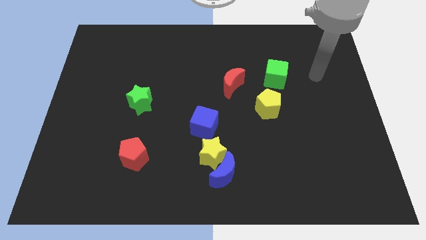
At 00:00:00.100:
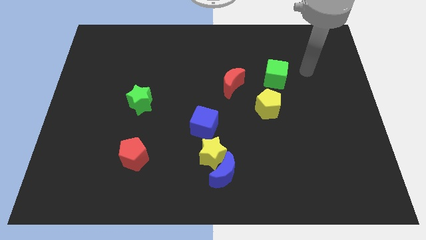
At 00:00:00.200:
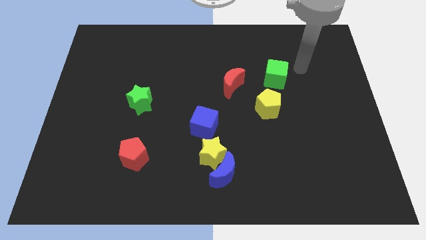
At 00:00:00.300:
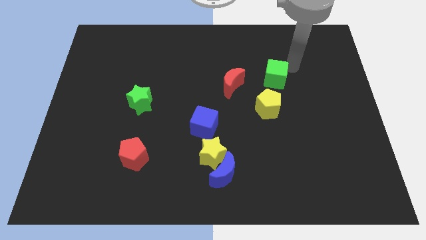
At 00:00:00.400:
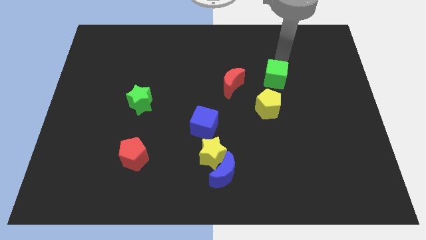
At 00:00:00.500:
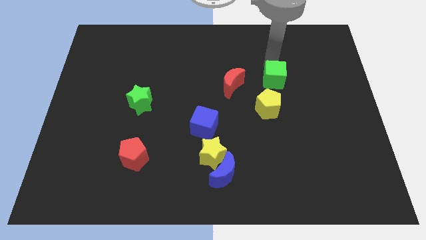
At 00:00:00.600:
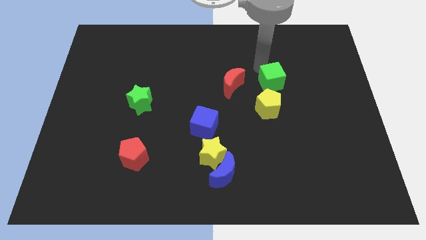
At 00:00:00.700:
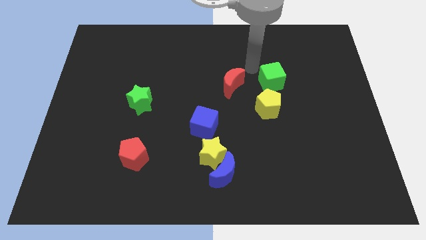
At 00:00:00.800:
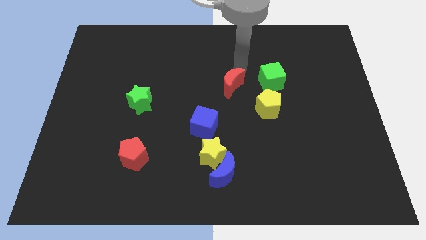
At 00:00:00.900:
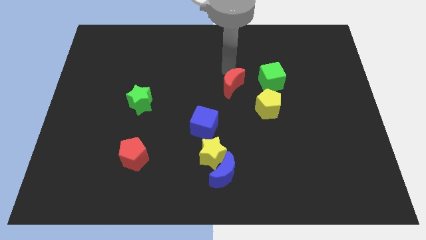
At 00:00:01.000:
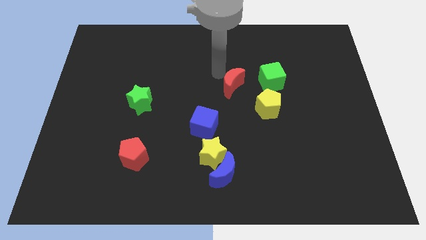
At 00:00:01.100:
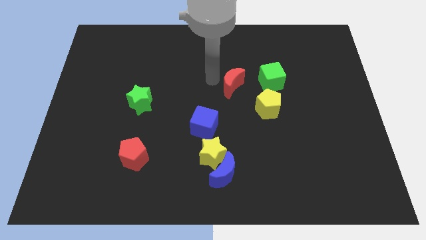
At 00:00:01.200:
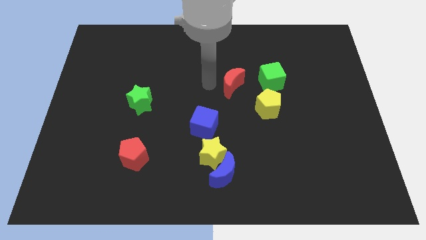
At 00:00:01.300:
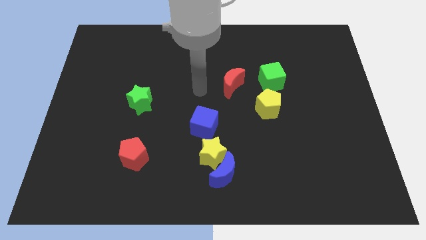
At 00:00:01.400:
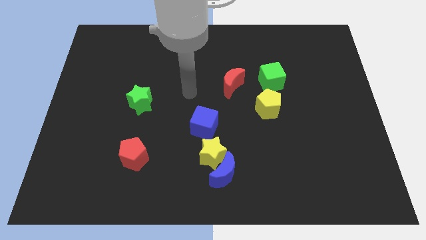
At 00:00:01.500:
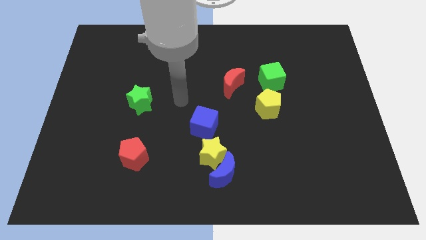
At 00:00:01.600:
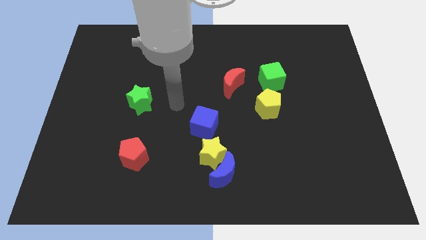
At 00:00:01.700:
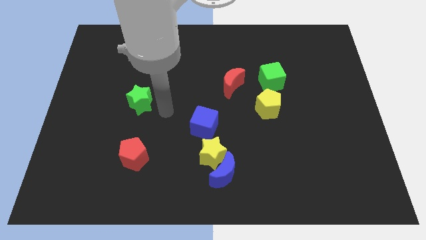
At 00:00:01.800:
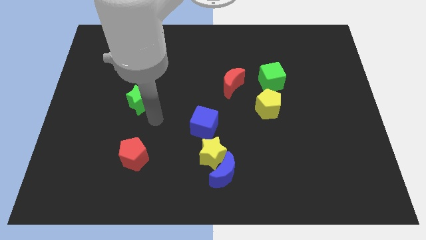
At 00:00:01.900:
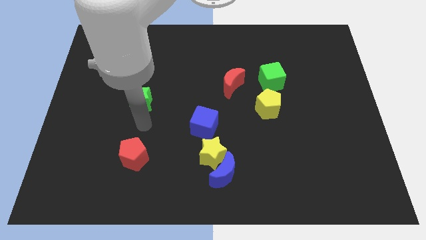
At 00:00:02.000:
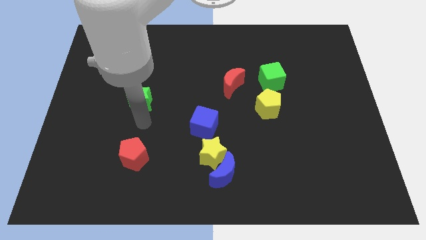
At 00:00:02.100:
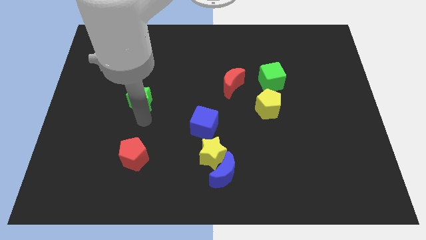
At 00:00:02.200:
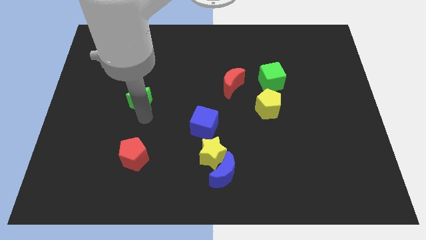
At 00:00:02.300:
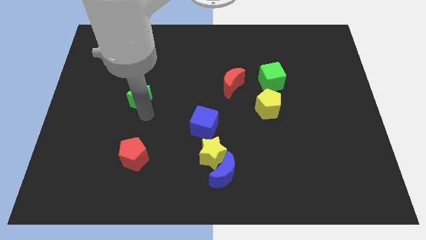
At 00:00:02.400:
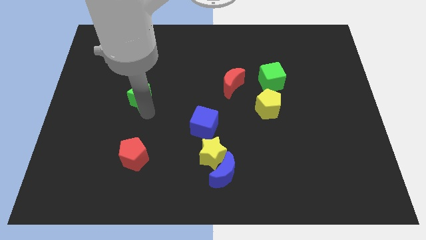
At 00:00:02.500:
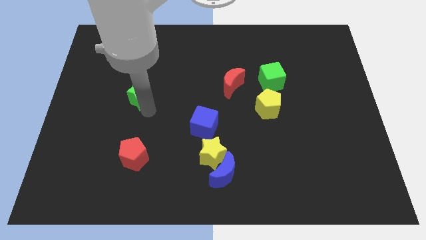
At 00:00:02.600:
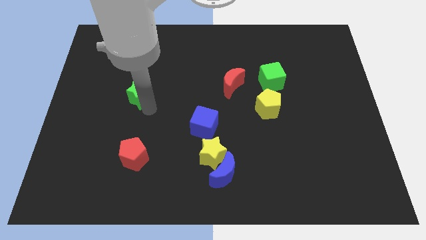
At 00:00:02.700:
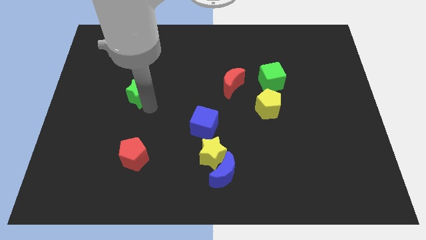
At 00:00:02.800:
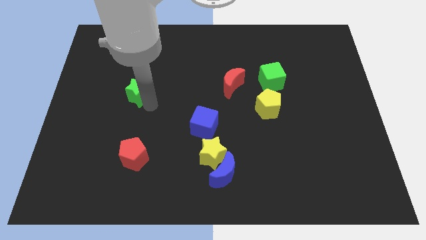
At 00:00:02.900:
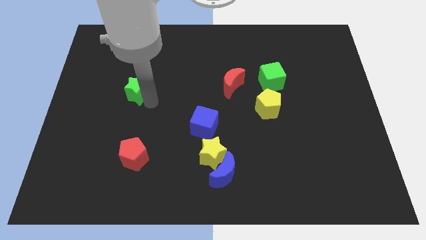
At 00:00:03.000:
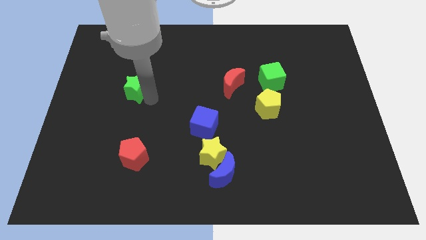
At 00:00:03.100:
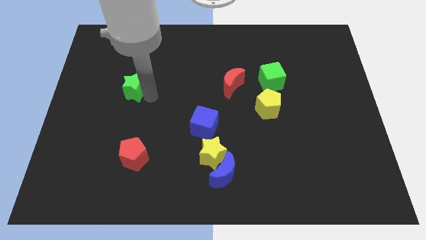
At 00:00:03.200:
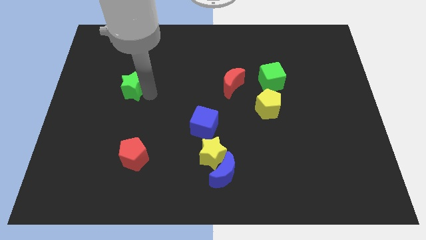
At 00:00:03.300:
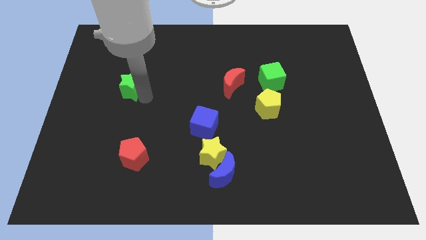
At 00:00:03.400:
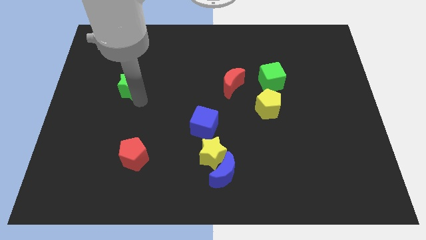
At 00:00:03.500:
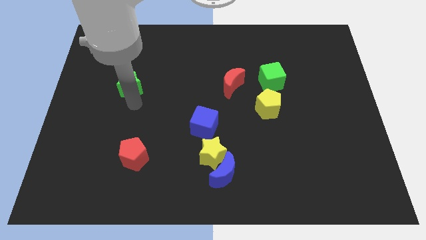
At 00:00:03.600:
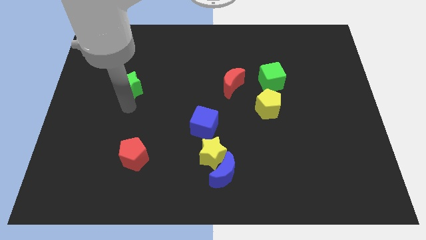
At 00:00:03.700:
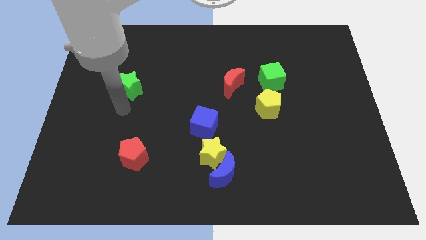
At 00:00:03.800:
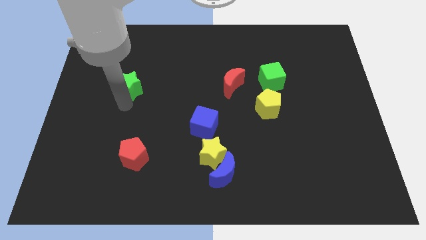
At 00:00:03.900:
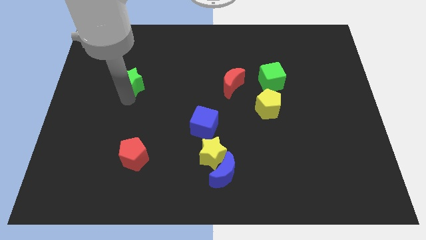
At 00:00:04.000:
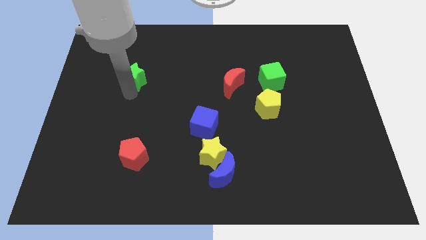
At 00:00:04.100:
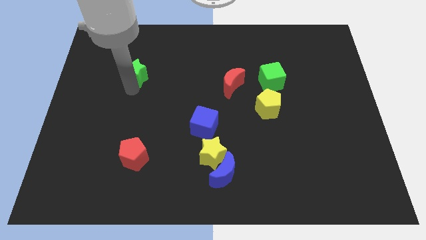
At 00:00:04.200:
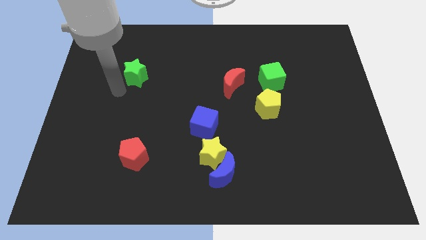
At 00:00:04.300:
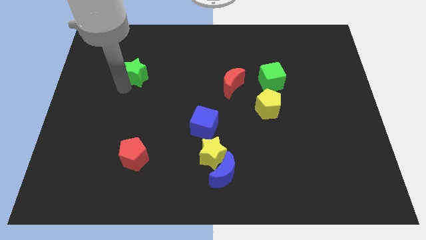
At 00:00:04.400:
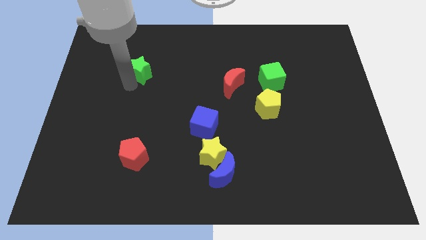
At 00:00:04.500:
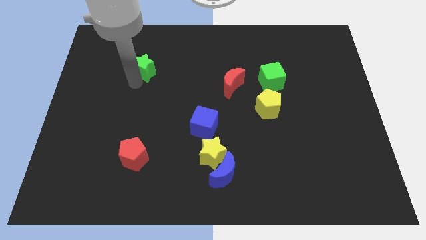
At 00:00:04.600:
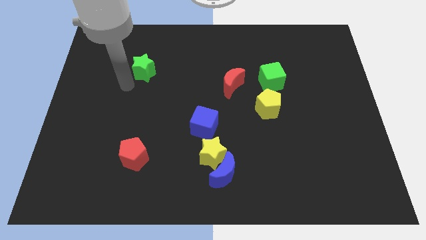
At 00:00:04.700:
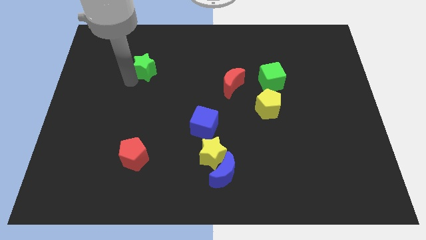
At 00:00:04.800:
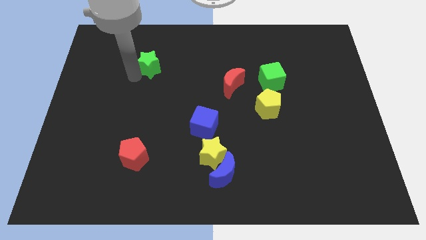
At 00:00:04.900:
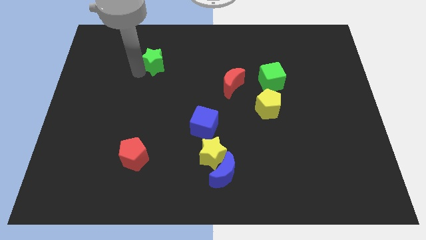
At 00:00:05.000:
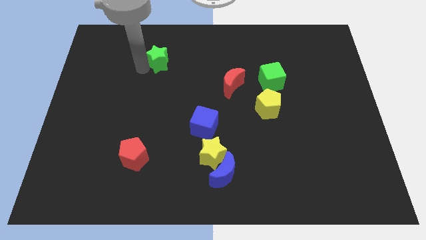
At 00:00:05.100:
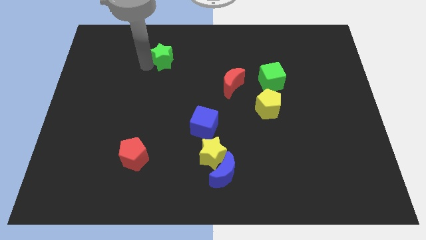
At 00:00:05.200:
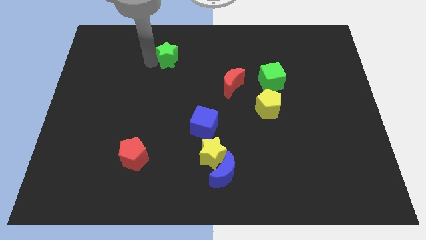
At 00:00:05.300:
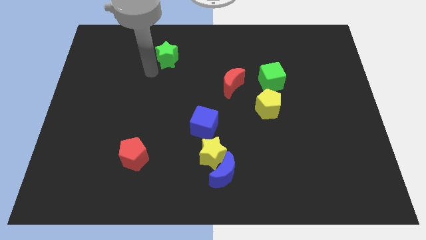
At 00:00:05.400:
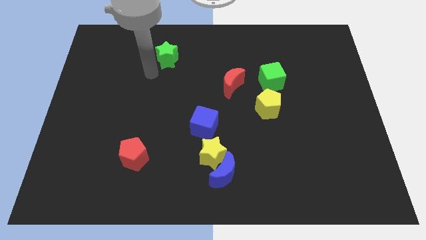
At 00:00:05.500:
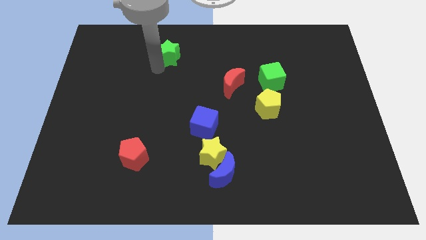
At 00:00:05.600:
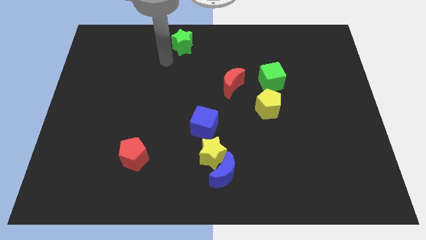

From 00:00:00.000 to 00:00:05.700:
move the green star to the towards your base
